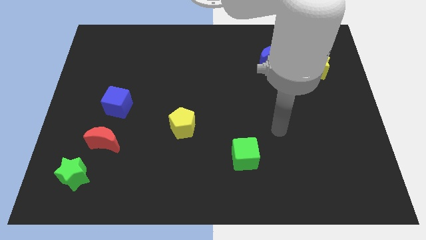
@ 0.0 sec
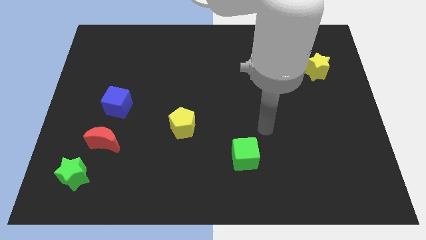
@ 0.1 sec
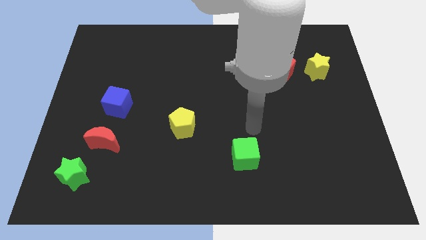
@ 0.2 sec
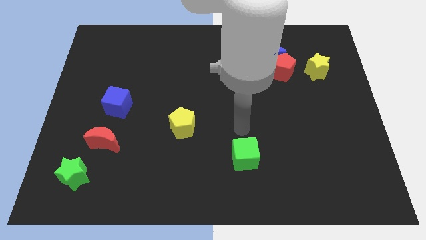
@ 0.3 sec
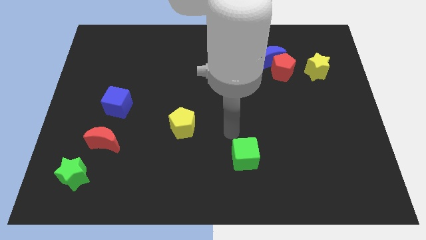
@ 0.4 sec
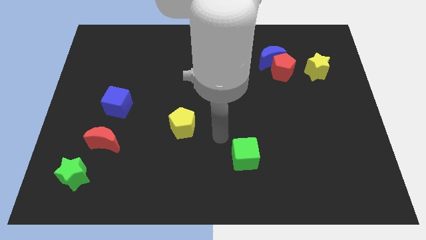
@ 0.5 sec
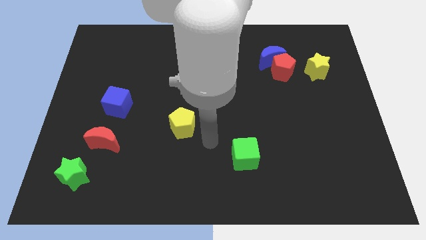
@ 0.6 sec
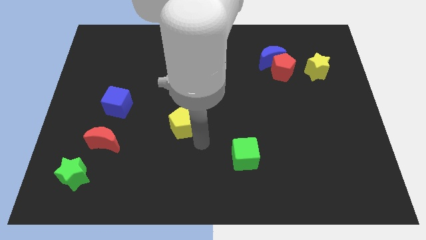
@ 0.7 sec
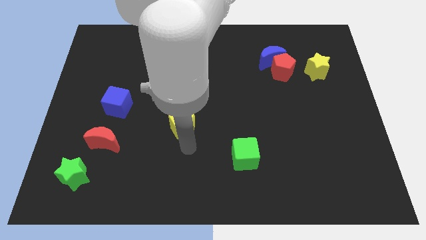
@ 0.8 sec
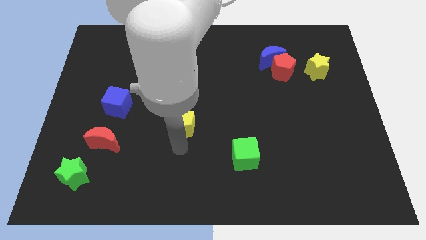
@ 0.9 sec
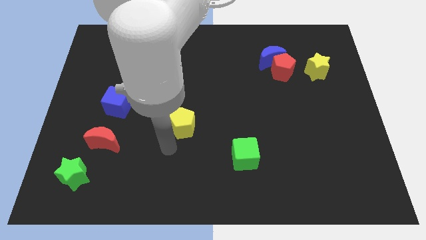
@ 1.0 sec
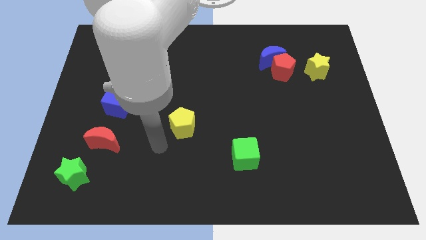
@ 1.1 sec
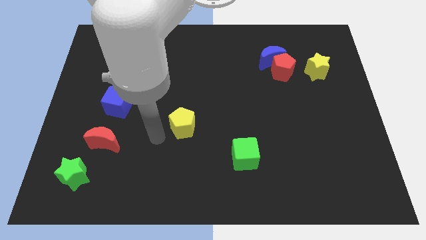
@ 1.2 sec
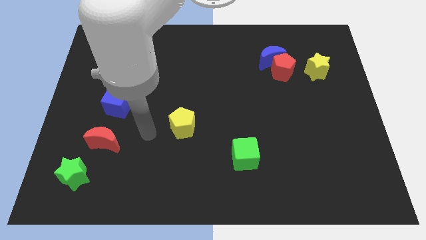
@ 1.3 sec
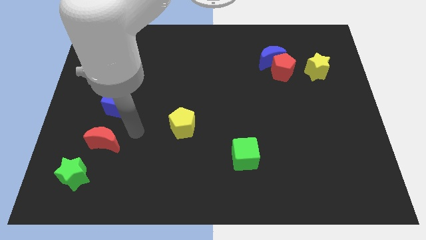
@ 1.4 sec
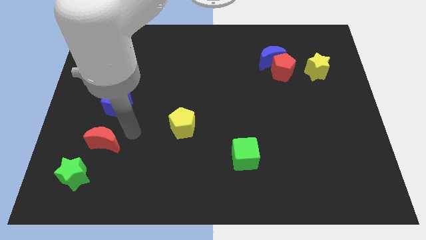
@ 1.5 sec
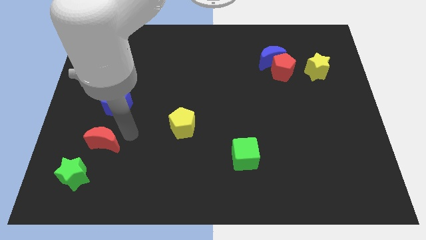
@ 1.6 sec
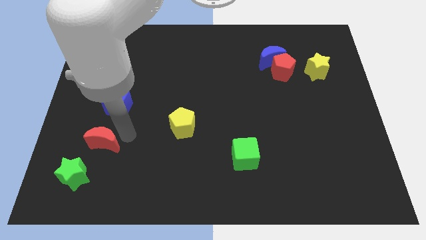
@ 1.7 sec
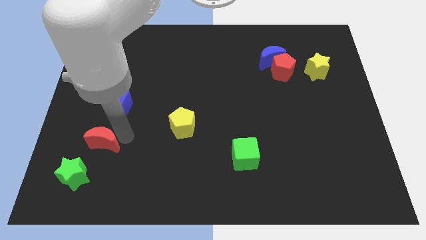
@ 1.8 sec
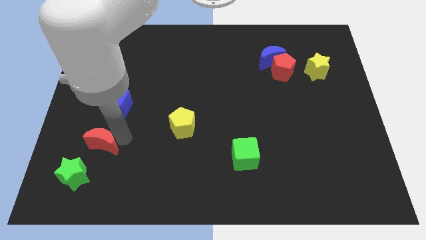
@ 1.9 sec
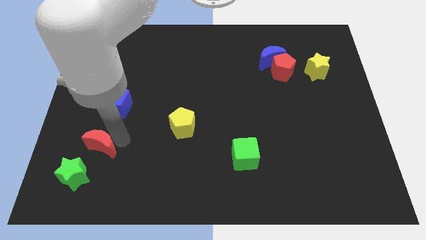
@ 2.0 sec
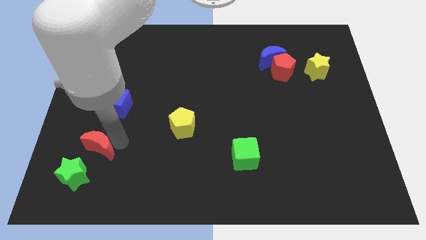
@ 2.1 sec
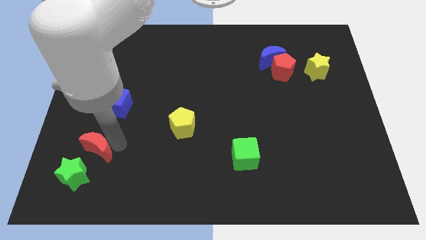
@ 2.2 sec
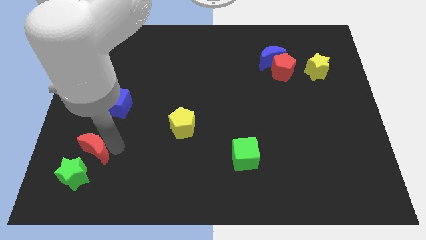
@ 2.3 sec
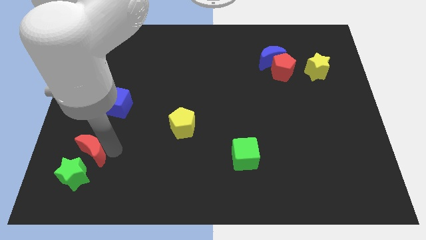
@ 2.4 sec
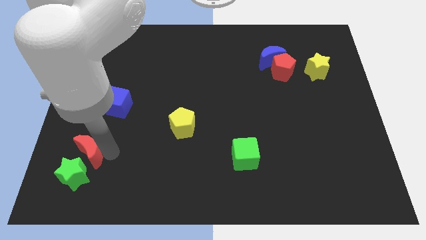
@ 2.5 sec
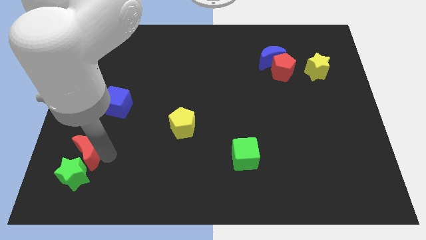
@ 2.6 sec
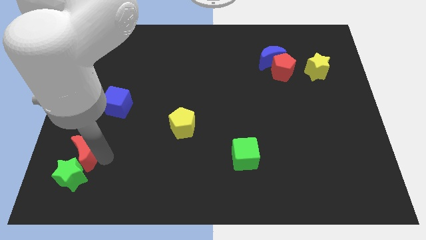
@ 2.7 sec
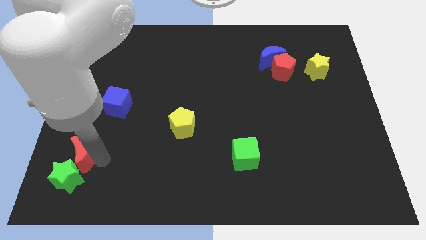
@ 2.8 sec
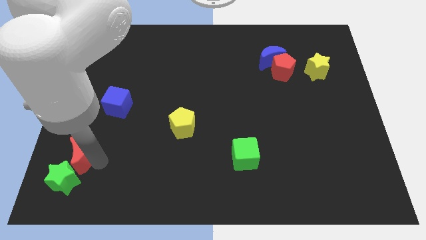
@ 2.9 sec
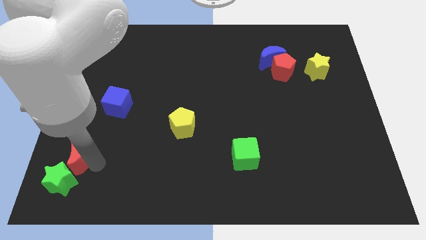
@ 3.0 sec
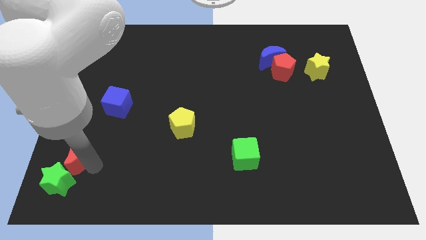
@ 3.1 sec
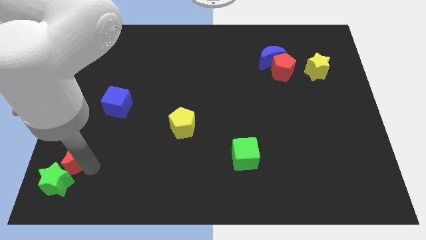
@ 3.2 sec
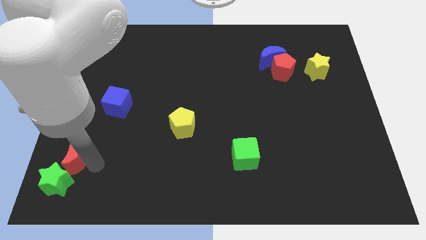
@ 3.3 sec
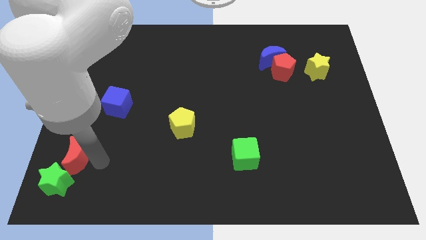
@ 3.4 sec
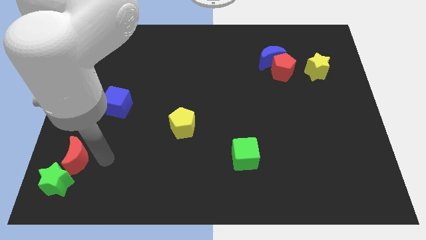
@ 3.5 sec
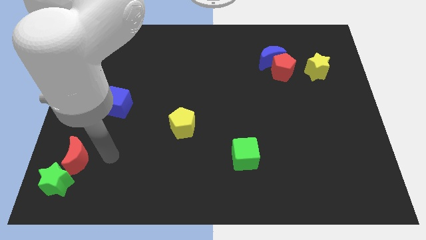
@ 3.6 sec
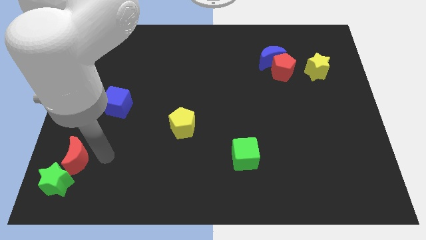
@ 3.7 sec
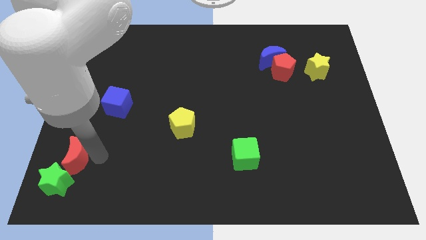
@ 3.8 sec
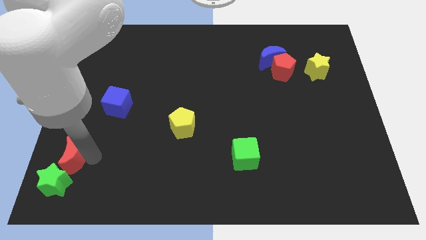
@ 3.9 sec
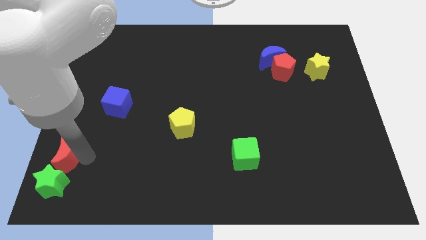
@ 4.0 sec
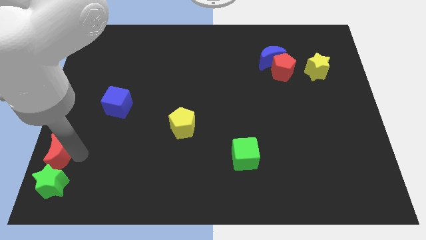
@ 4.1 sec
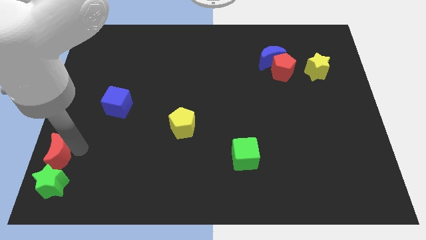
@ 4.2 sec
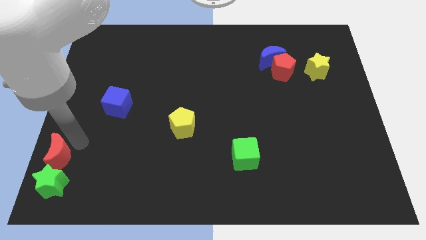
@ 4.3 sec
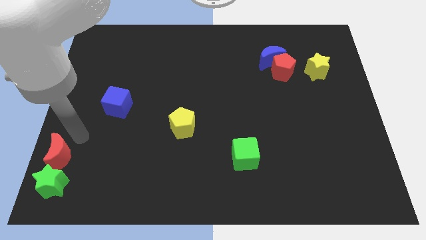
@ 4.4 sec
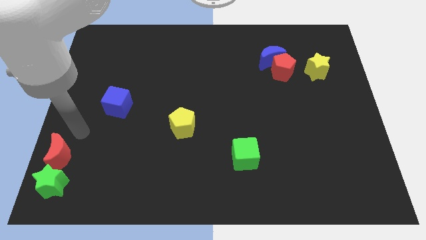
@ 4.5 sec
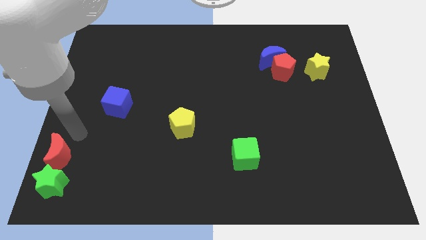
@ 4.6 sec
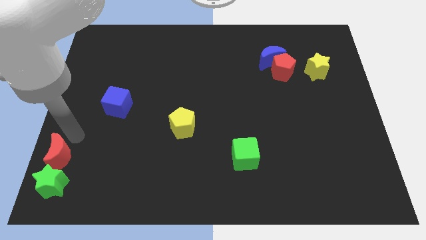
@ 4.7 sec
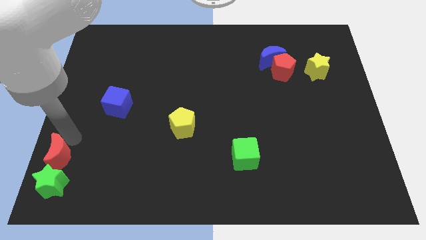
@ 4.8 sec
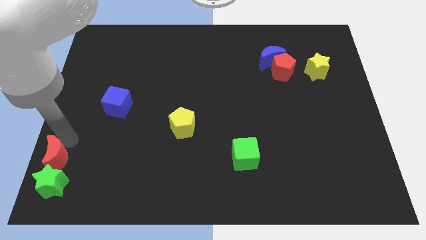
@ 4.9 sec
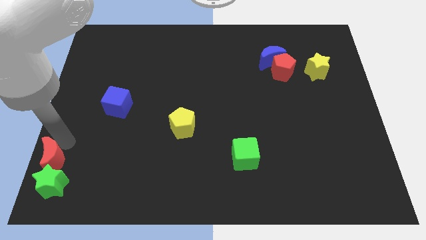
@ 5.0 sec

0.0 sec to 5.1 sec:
put the red moon to the bottom left corner

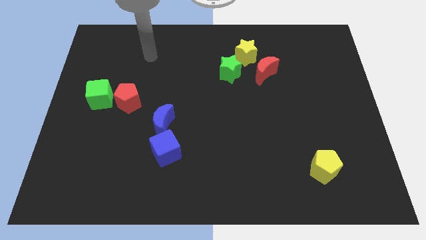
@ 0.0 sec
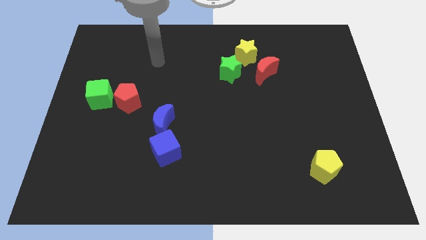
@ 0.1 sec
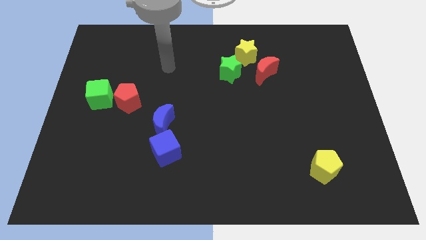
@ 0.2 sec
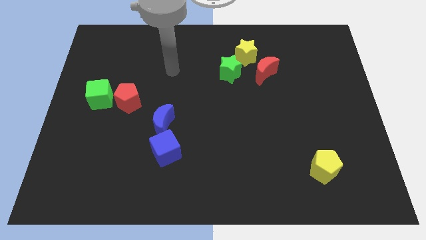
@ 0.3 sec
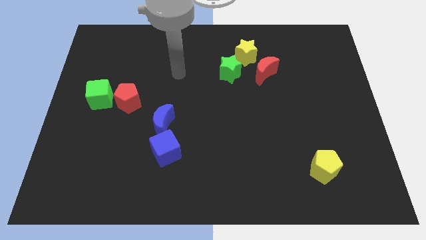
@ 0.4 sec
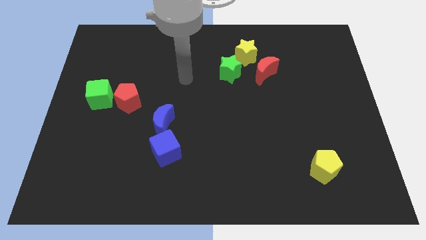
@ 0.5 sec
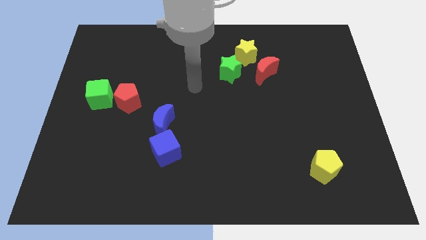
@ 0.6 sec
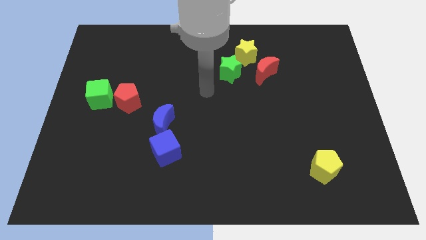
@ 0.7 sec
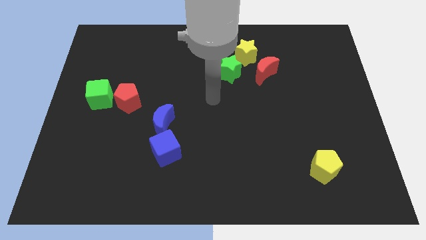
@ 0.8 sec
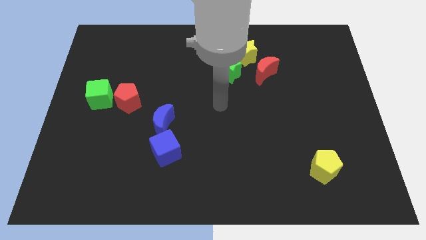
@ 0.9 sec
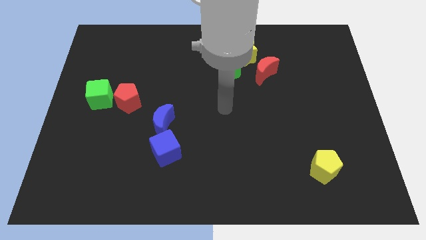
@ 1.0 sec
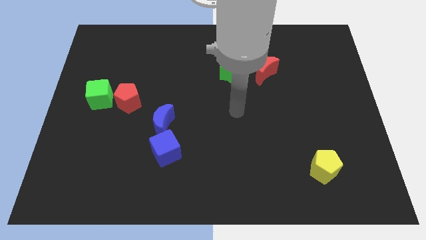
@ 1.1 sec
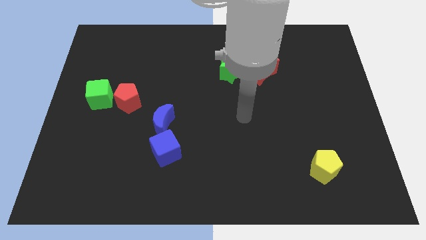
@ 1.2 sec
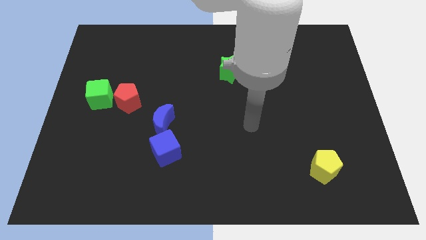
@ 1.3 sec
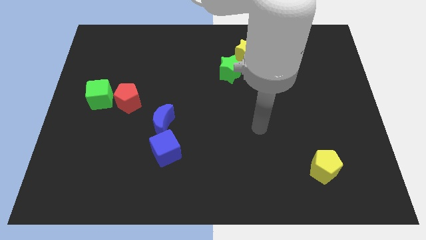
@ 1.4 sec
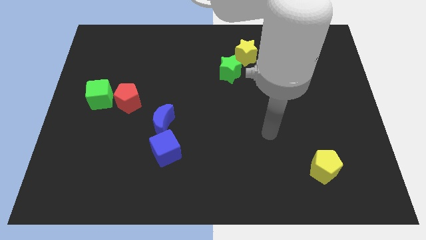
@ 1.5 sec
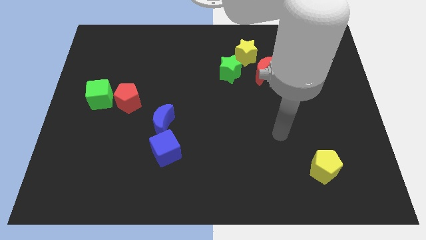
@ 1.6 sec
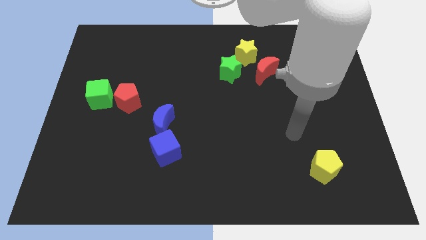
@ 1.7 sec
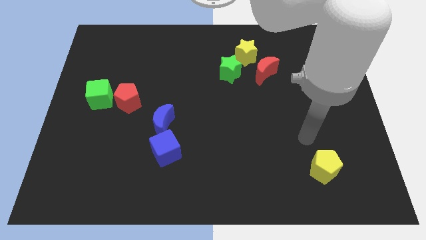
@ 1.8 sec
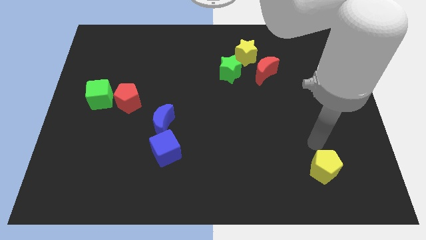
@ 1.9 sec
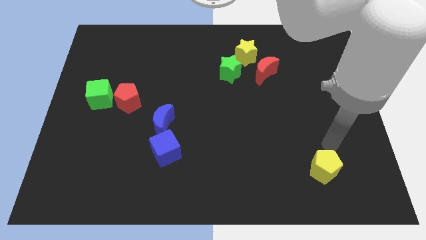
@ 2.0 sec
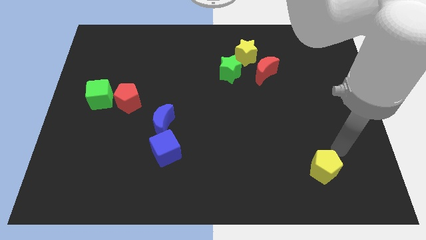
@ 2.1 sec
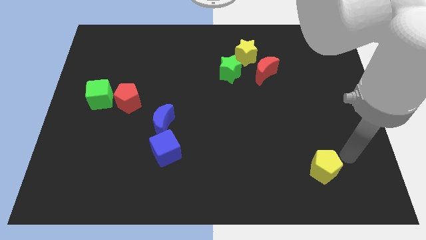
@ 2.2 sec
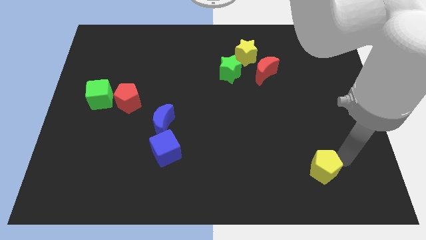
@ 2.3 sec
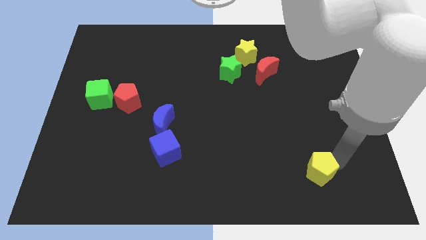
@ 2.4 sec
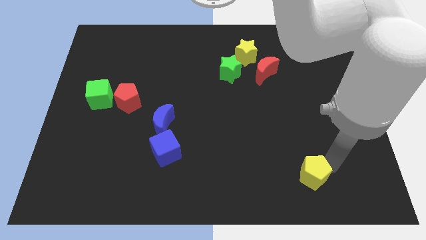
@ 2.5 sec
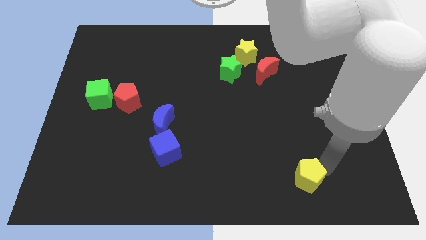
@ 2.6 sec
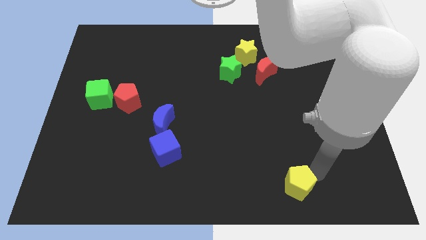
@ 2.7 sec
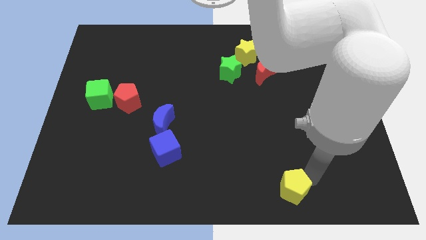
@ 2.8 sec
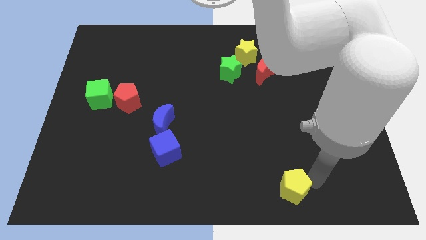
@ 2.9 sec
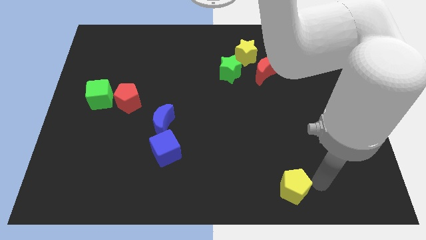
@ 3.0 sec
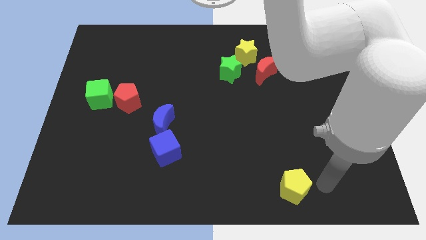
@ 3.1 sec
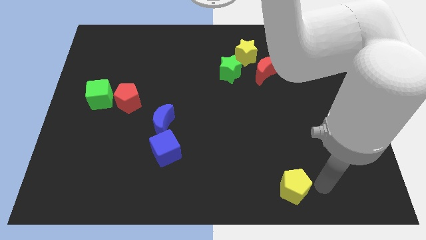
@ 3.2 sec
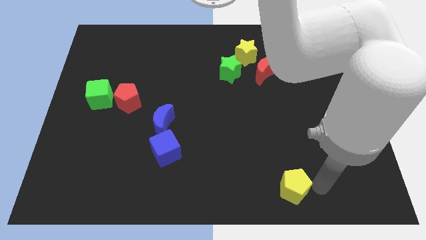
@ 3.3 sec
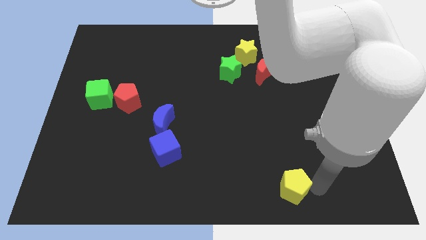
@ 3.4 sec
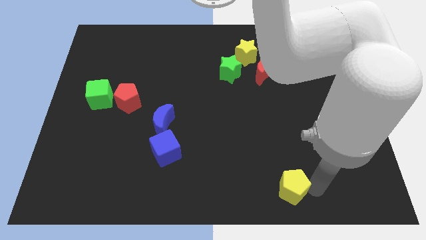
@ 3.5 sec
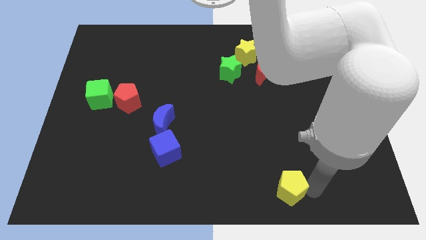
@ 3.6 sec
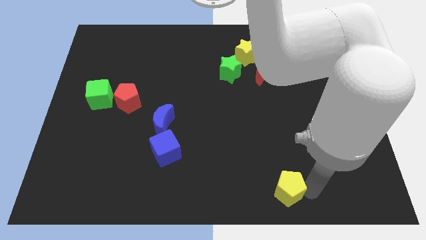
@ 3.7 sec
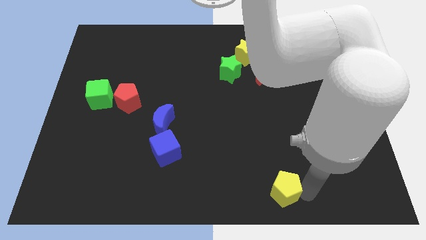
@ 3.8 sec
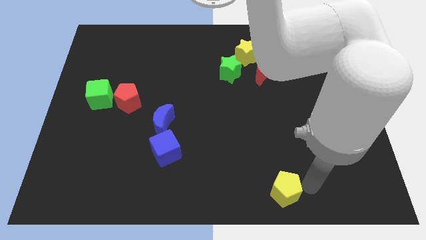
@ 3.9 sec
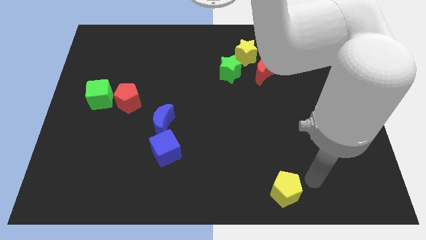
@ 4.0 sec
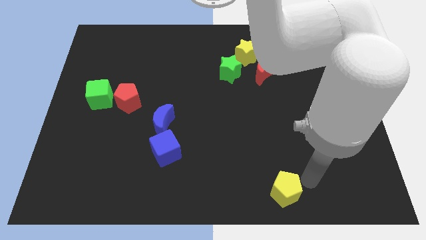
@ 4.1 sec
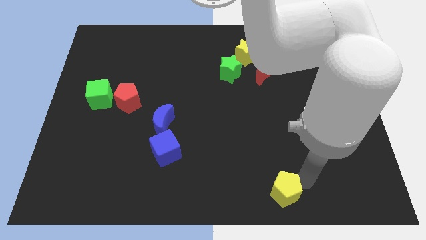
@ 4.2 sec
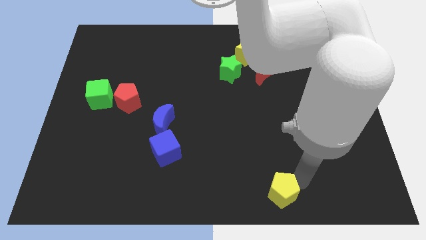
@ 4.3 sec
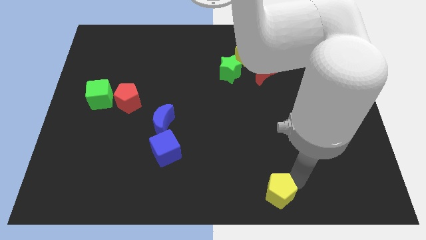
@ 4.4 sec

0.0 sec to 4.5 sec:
slide the yellow pentagon to the bottom
